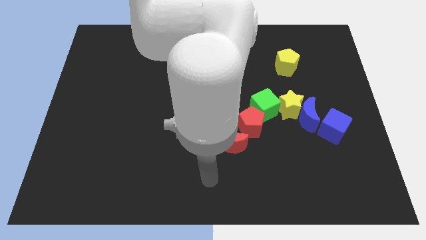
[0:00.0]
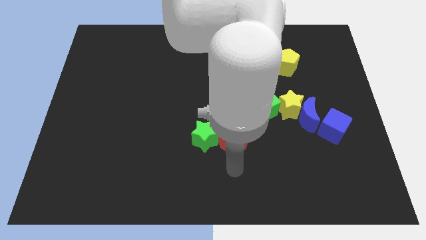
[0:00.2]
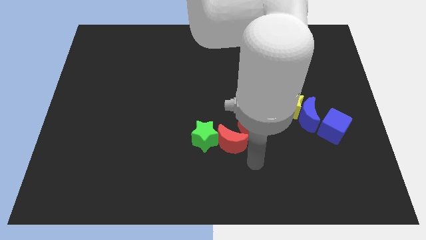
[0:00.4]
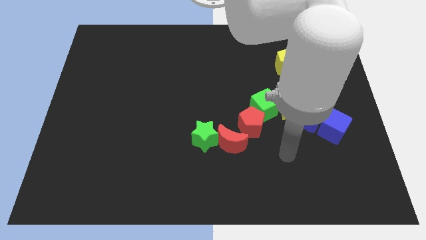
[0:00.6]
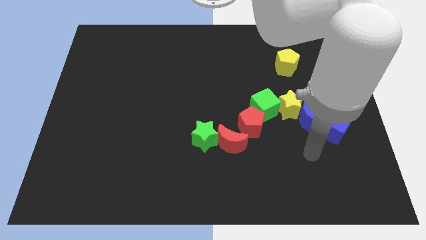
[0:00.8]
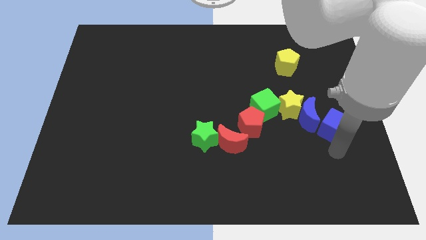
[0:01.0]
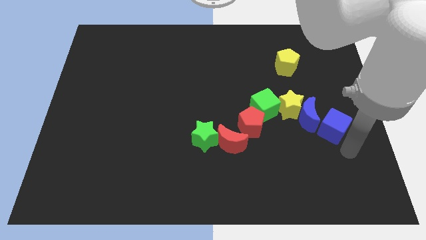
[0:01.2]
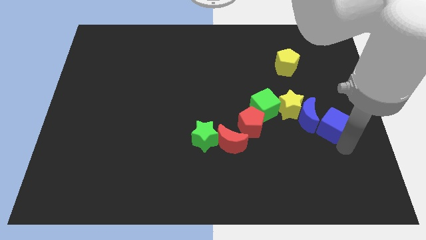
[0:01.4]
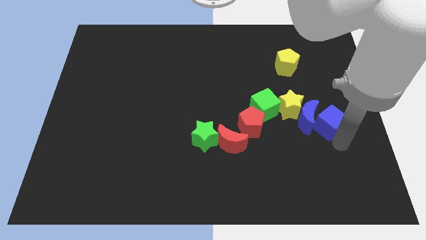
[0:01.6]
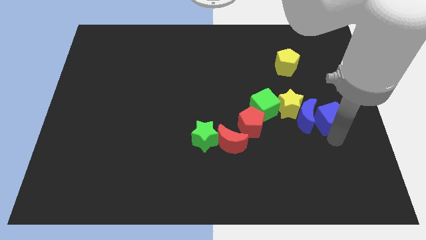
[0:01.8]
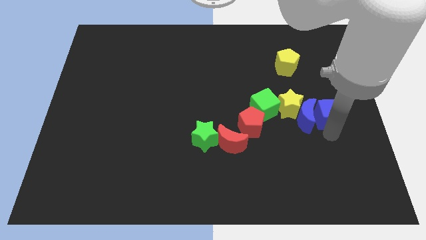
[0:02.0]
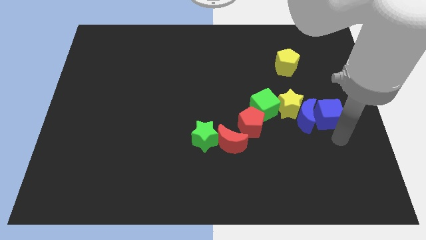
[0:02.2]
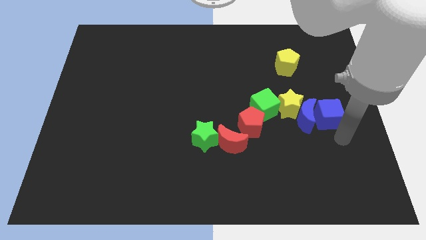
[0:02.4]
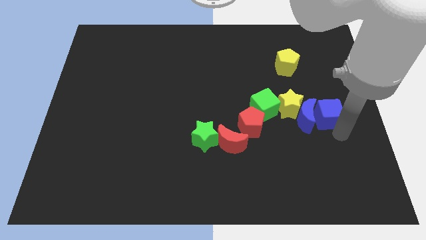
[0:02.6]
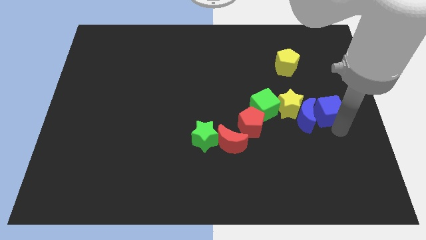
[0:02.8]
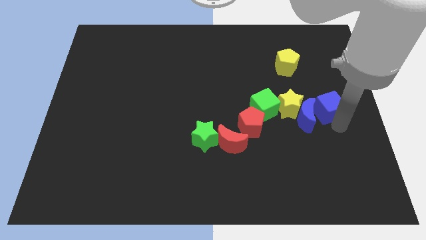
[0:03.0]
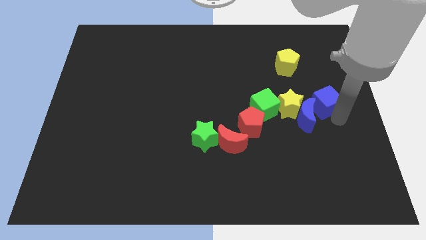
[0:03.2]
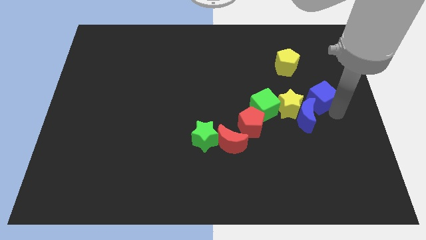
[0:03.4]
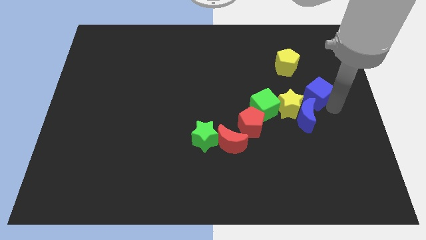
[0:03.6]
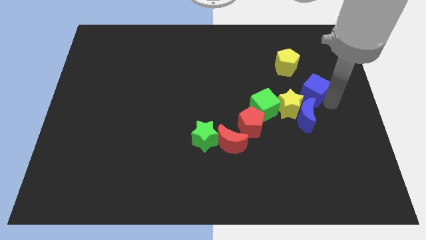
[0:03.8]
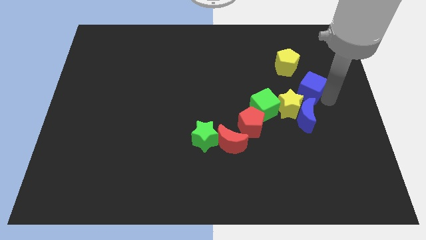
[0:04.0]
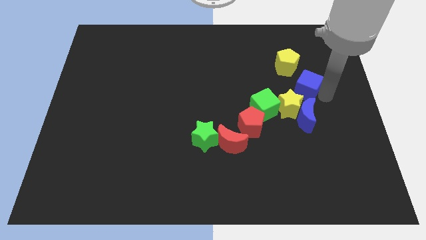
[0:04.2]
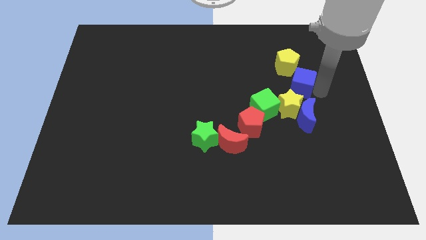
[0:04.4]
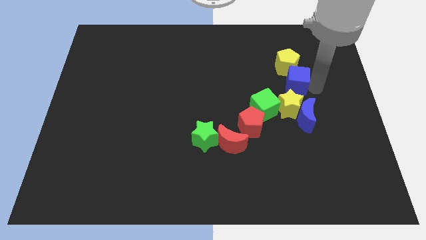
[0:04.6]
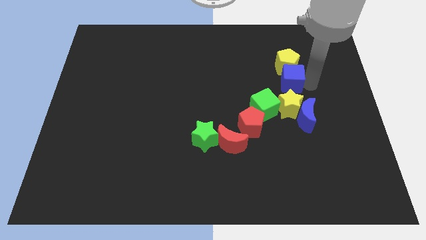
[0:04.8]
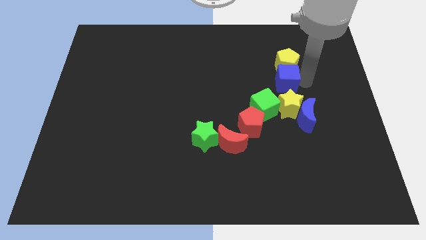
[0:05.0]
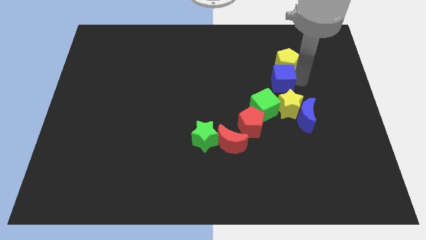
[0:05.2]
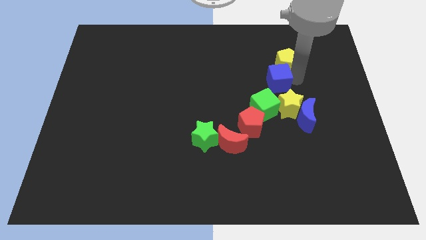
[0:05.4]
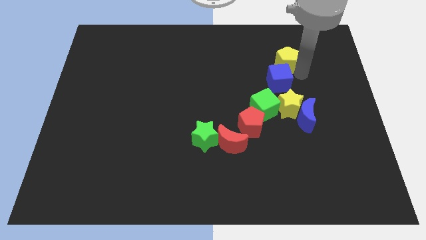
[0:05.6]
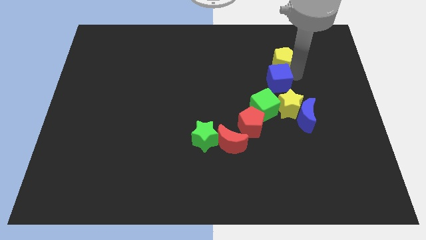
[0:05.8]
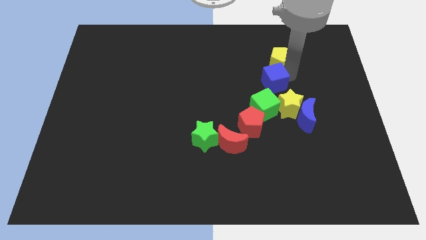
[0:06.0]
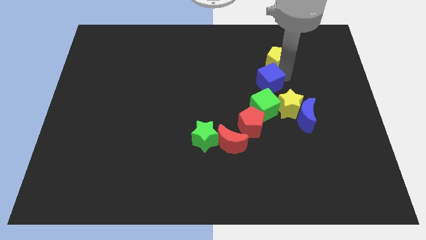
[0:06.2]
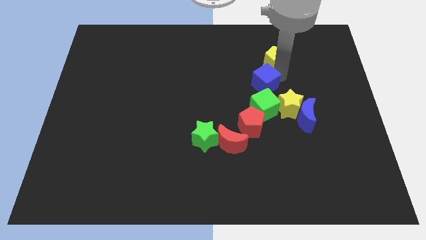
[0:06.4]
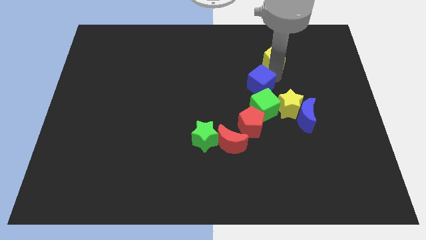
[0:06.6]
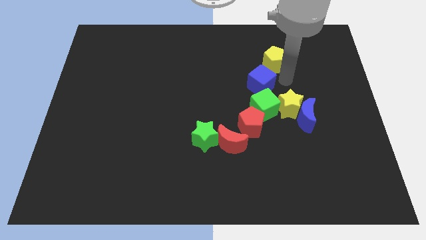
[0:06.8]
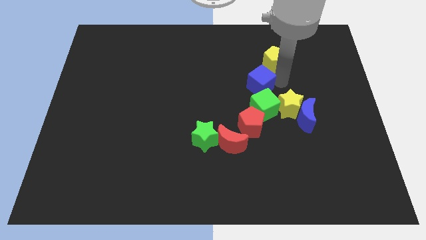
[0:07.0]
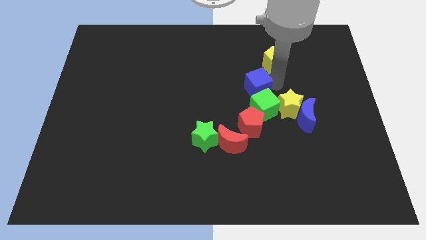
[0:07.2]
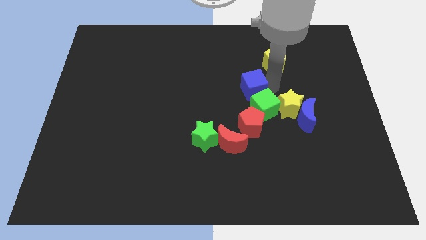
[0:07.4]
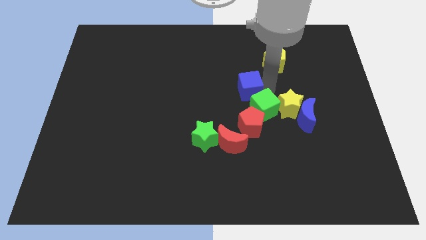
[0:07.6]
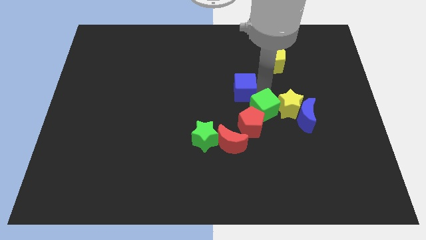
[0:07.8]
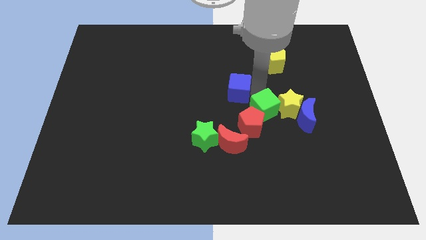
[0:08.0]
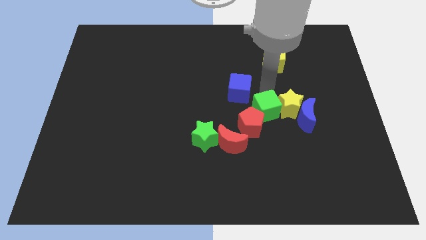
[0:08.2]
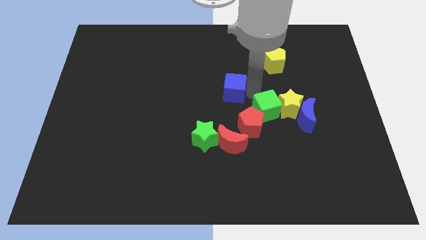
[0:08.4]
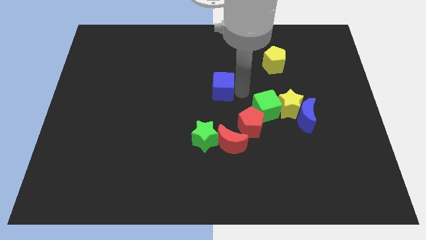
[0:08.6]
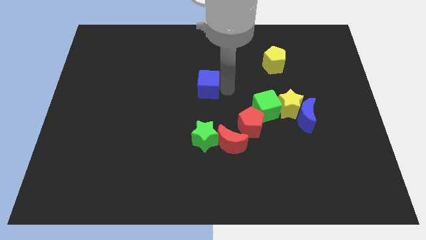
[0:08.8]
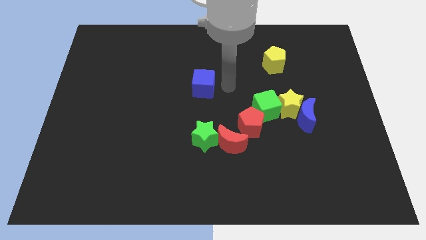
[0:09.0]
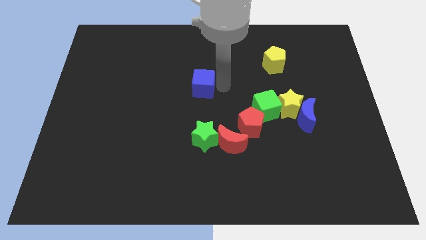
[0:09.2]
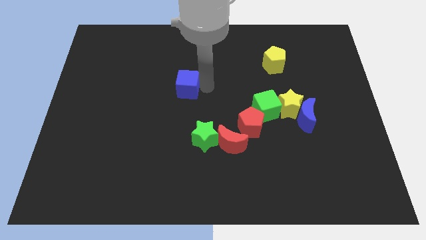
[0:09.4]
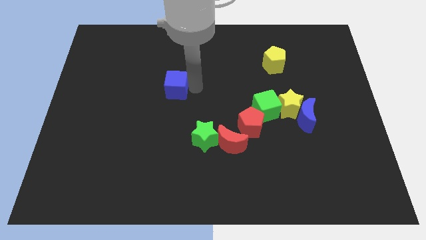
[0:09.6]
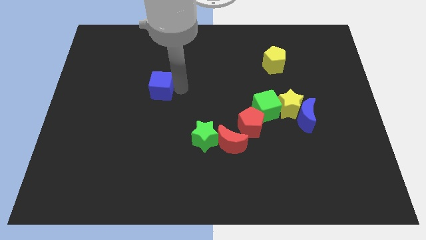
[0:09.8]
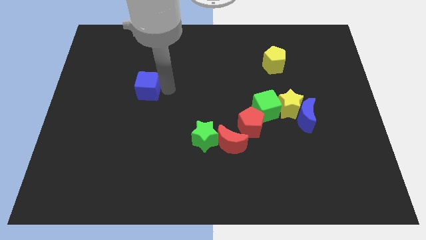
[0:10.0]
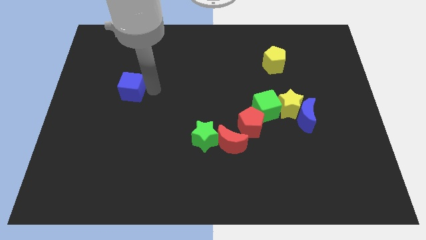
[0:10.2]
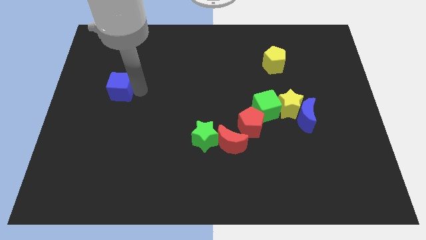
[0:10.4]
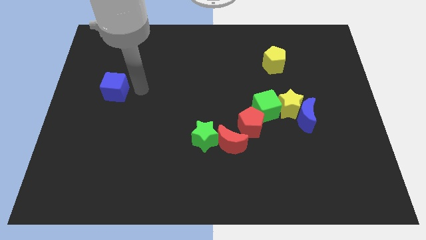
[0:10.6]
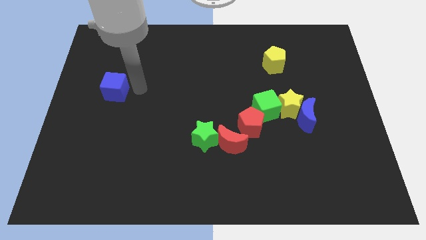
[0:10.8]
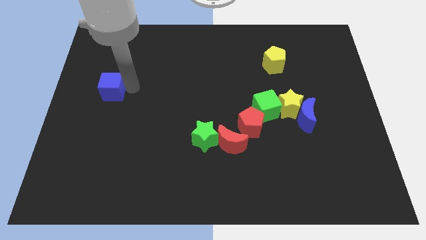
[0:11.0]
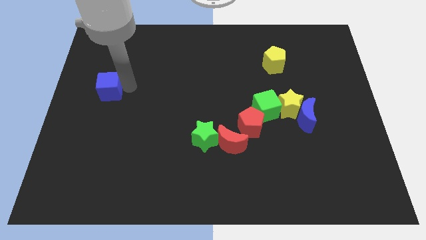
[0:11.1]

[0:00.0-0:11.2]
push the blue cube to the left side
